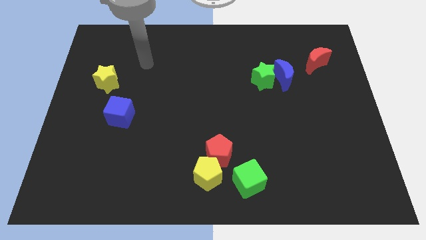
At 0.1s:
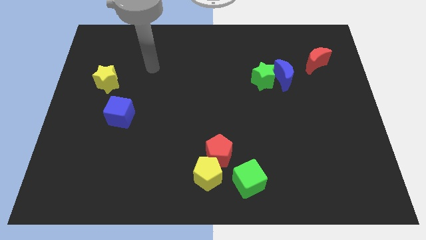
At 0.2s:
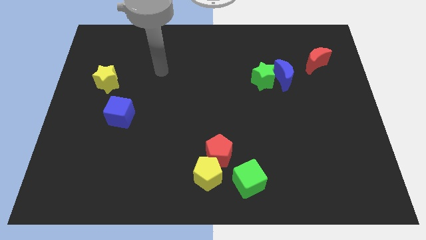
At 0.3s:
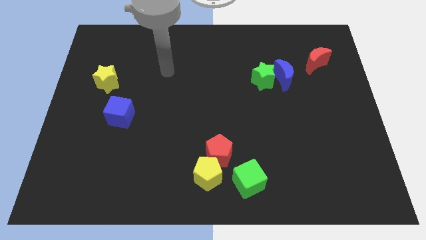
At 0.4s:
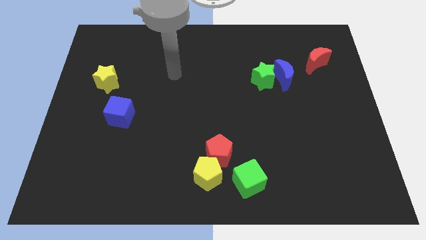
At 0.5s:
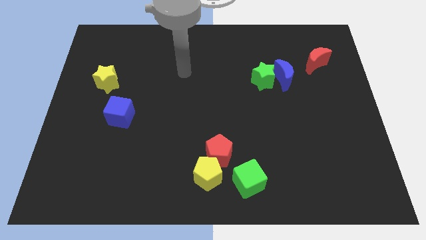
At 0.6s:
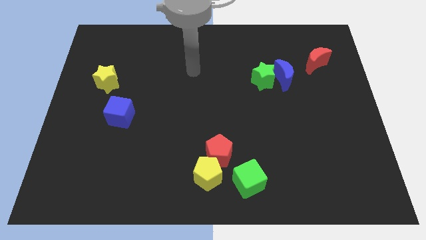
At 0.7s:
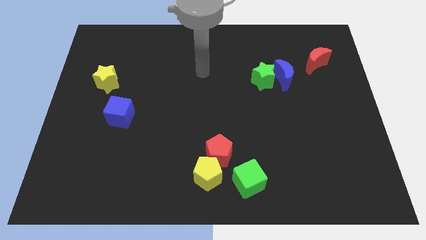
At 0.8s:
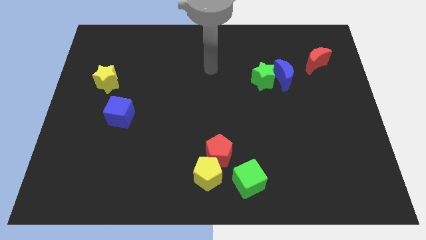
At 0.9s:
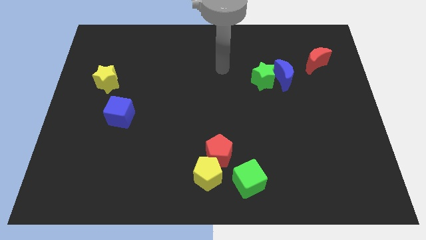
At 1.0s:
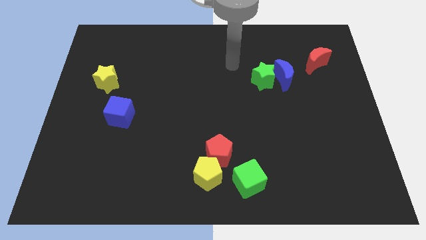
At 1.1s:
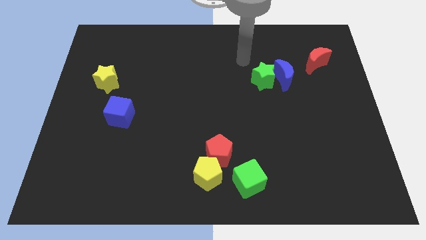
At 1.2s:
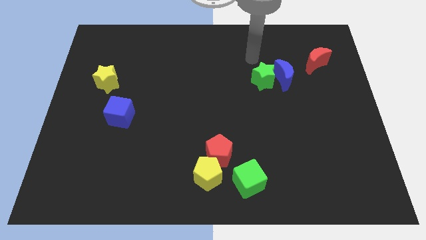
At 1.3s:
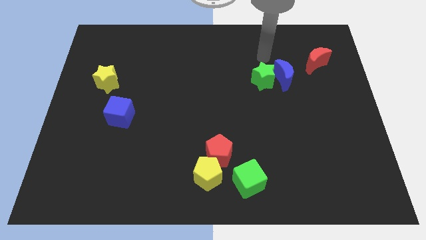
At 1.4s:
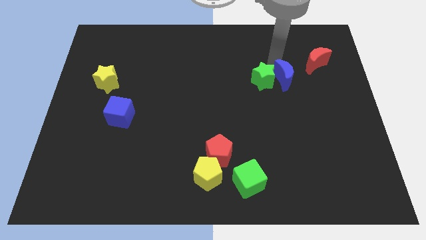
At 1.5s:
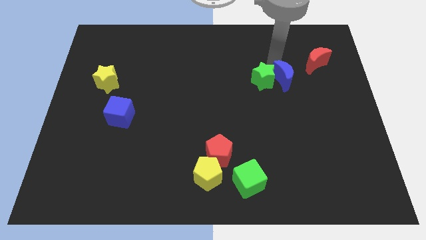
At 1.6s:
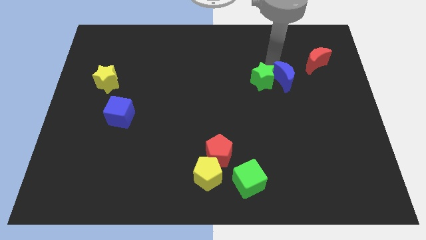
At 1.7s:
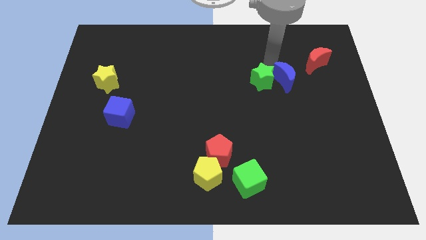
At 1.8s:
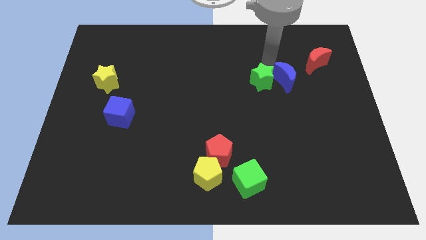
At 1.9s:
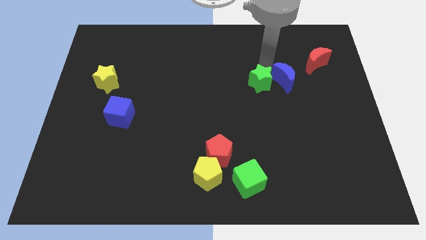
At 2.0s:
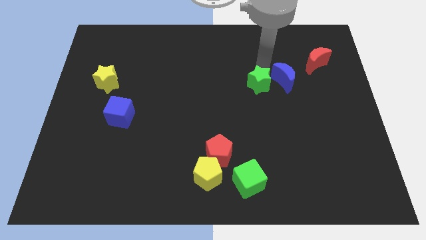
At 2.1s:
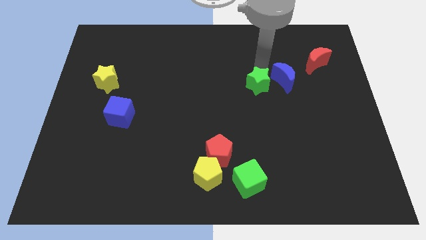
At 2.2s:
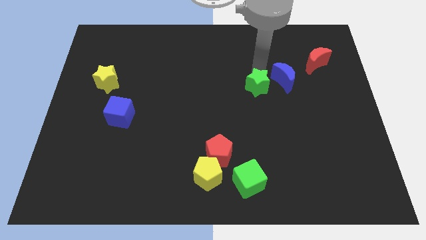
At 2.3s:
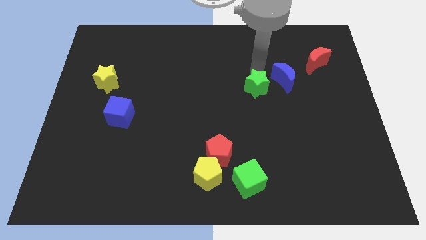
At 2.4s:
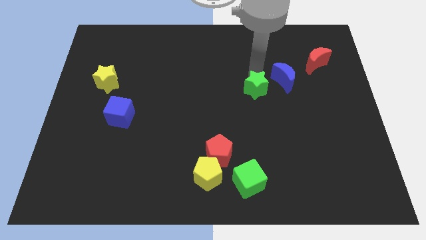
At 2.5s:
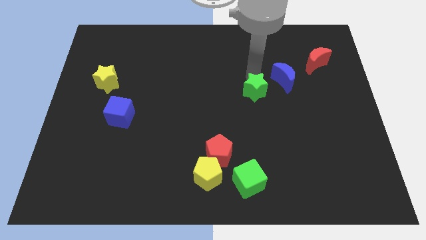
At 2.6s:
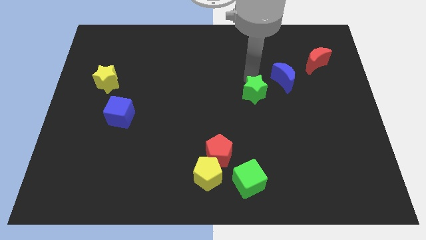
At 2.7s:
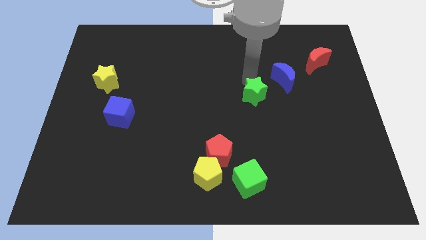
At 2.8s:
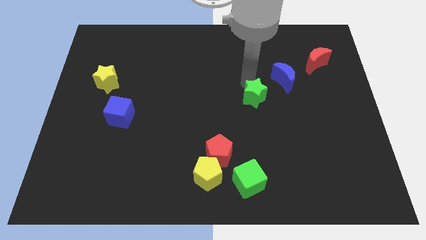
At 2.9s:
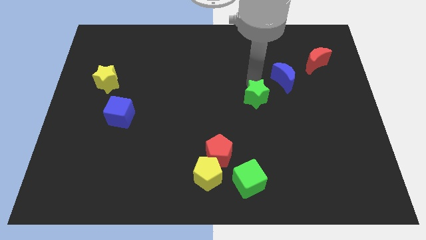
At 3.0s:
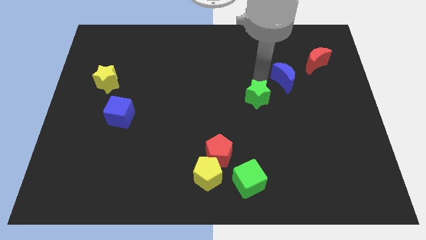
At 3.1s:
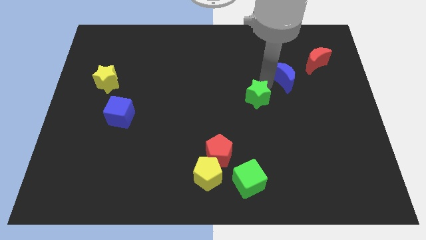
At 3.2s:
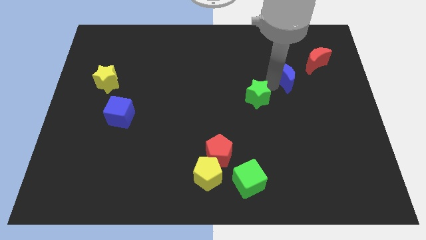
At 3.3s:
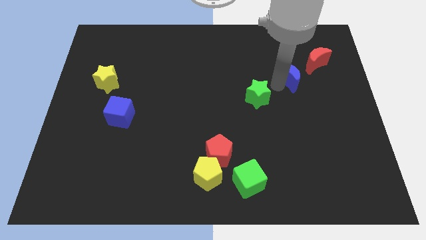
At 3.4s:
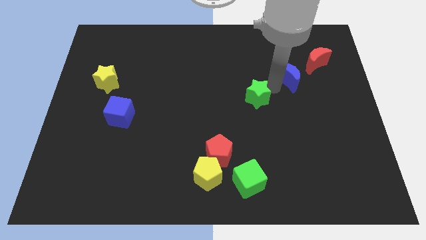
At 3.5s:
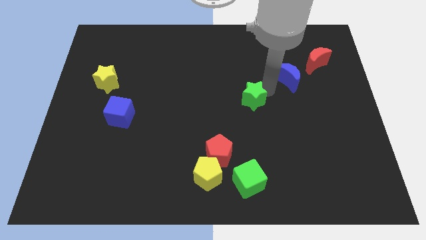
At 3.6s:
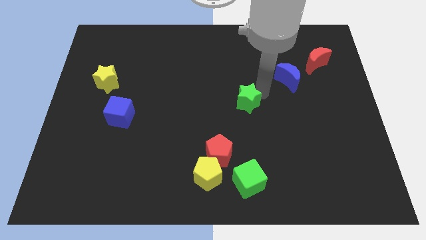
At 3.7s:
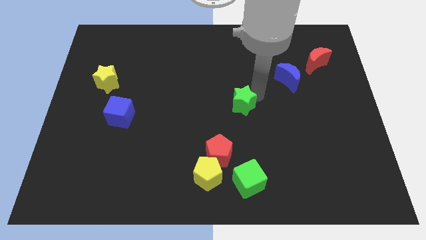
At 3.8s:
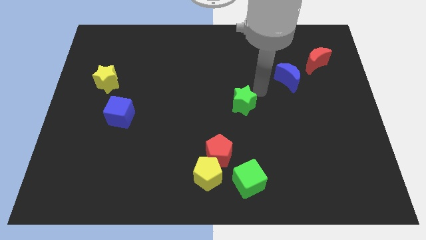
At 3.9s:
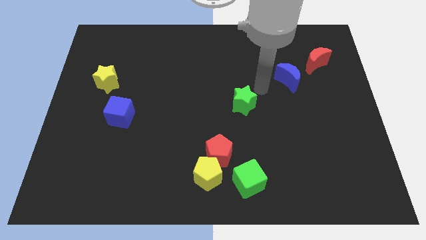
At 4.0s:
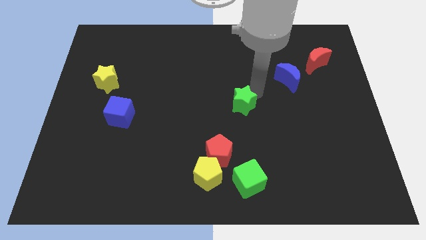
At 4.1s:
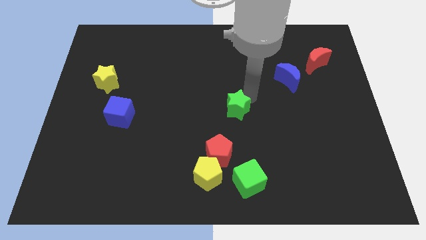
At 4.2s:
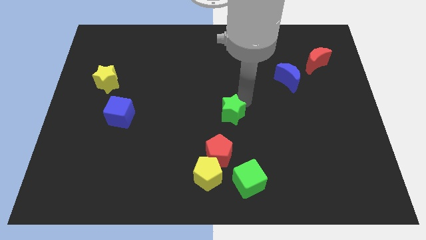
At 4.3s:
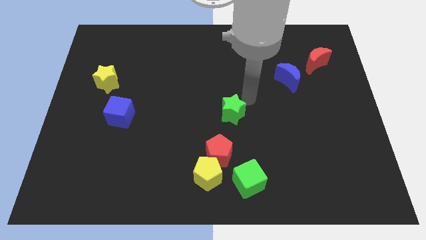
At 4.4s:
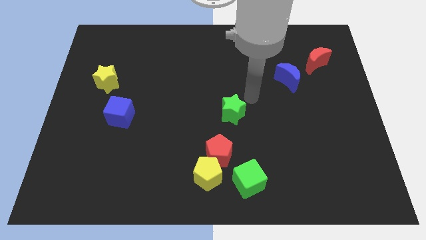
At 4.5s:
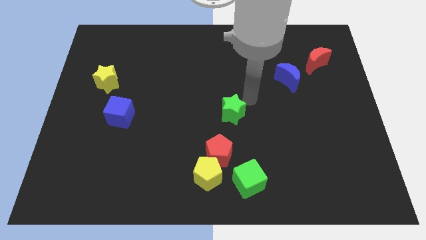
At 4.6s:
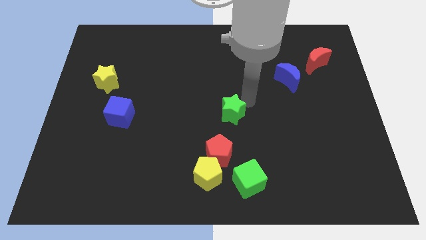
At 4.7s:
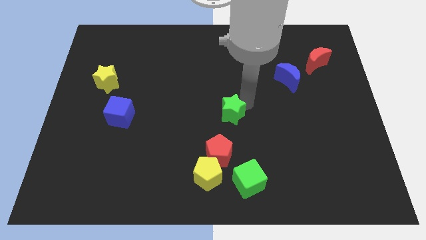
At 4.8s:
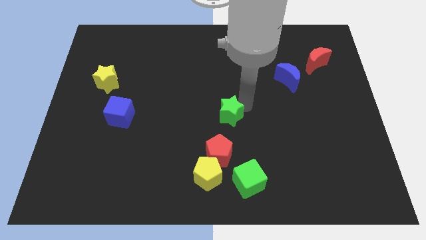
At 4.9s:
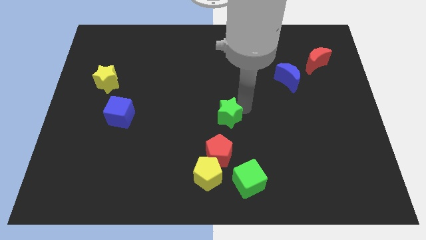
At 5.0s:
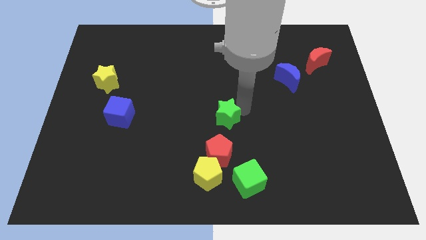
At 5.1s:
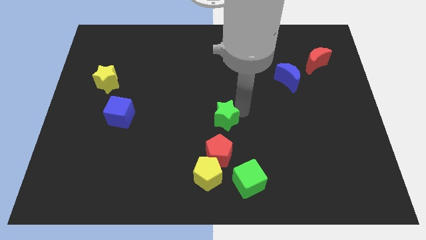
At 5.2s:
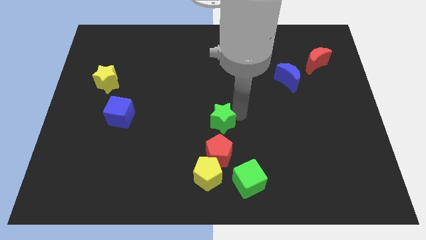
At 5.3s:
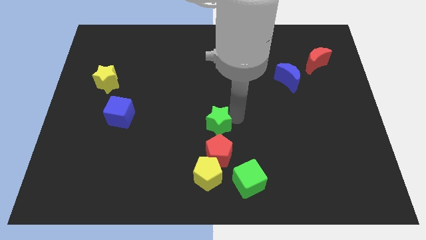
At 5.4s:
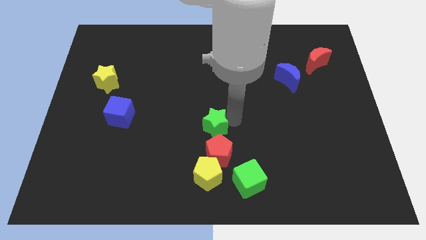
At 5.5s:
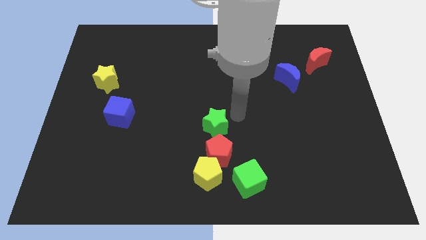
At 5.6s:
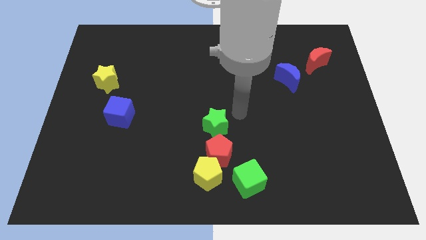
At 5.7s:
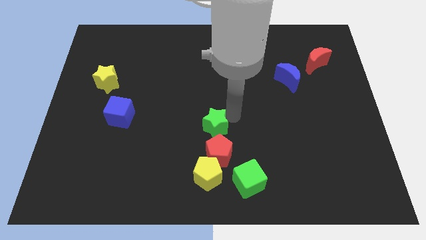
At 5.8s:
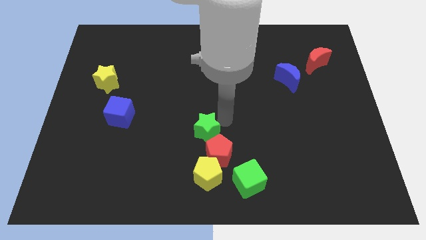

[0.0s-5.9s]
slide the green star downwards and then left

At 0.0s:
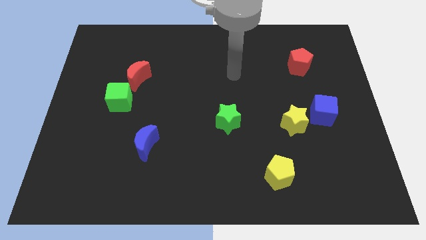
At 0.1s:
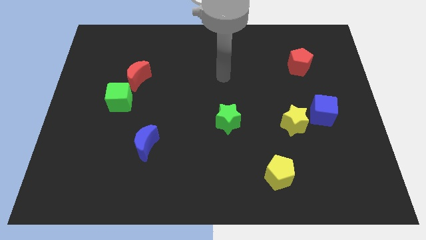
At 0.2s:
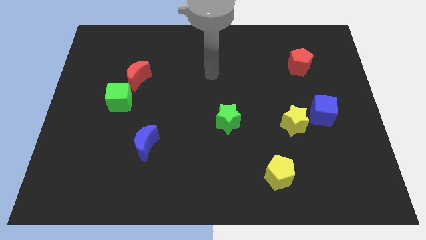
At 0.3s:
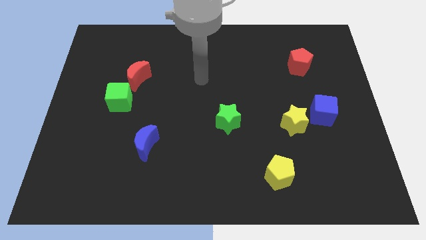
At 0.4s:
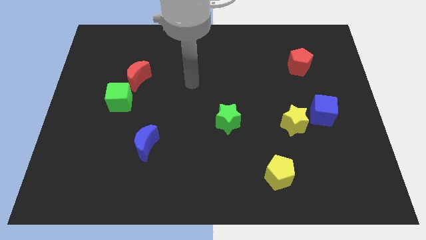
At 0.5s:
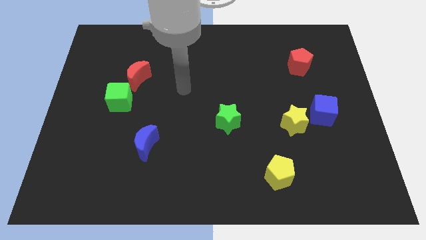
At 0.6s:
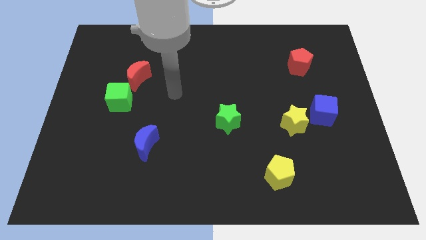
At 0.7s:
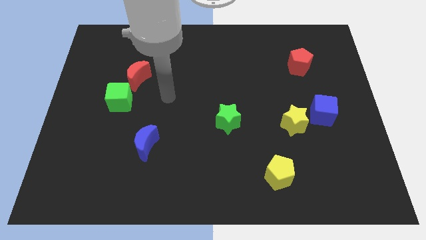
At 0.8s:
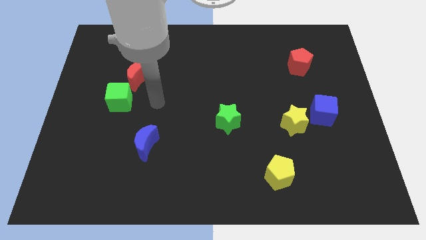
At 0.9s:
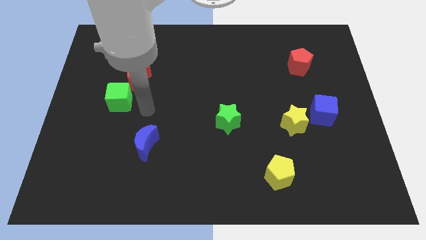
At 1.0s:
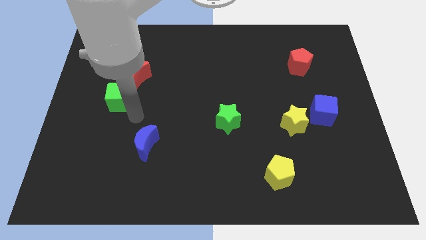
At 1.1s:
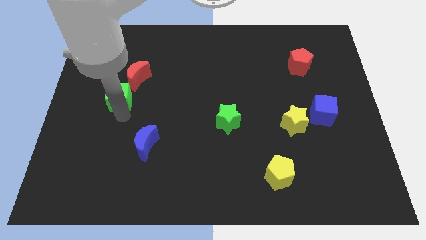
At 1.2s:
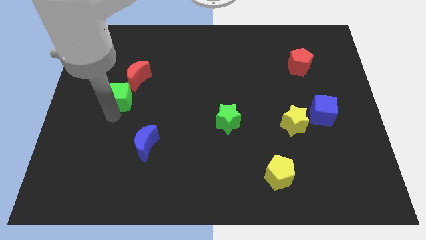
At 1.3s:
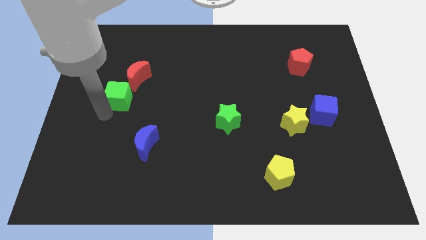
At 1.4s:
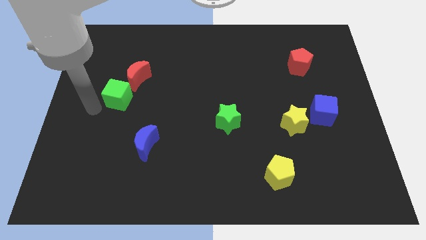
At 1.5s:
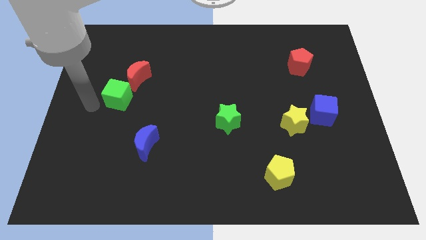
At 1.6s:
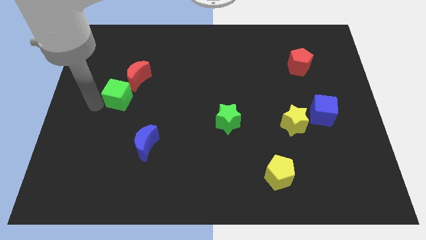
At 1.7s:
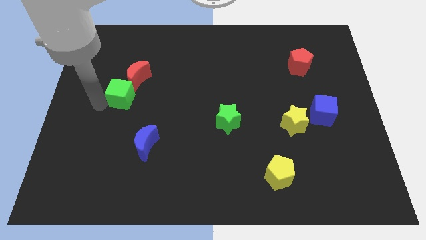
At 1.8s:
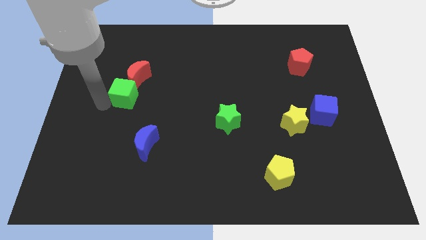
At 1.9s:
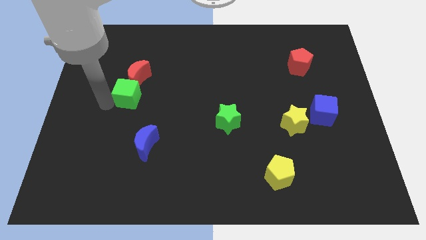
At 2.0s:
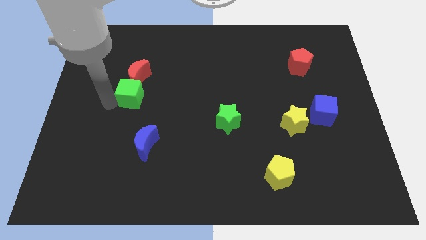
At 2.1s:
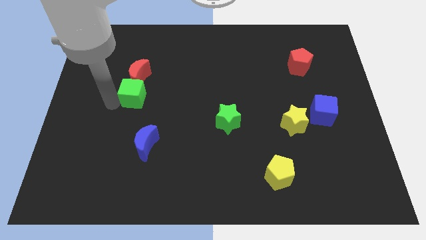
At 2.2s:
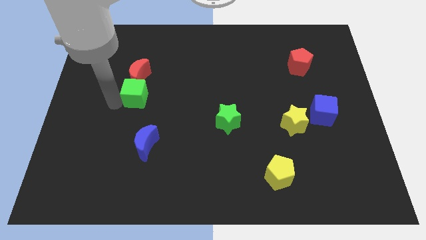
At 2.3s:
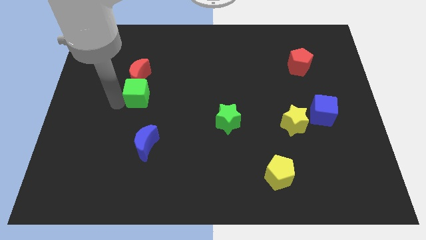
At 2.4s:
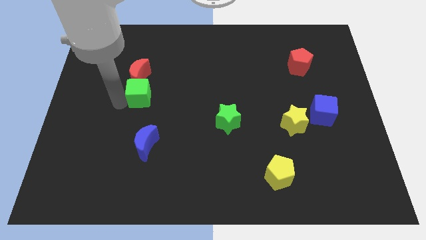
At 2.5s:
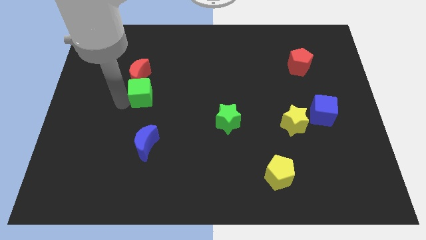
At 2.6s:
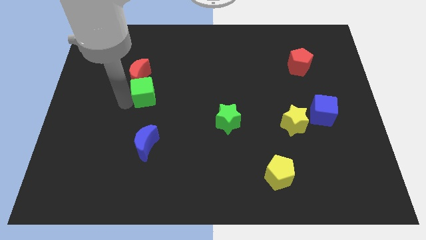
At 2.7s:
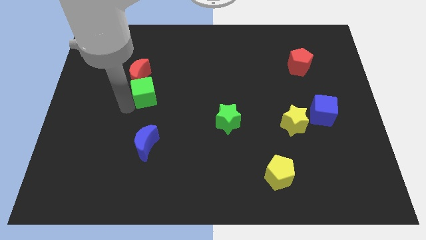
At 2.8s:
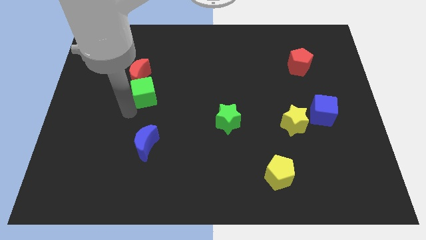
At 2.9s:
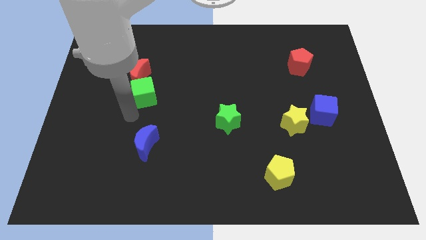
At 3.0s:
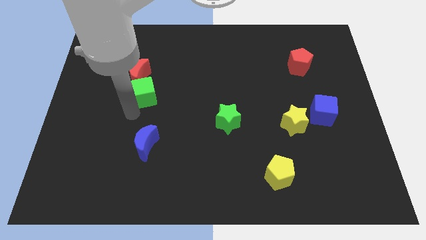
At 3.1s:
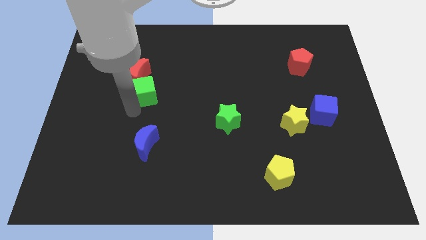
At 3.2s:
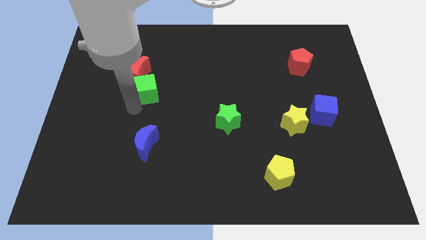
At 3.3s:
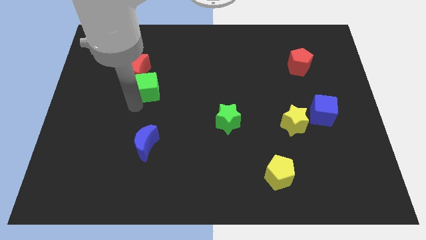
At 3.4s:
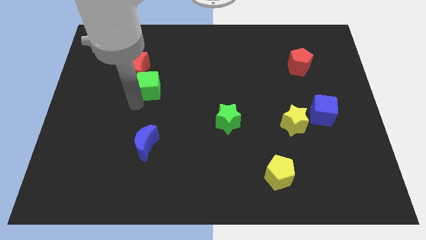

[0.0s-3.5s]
slightly slide the green cube upwards and right diagonally
